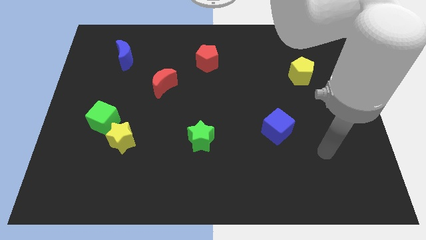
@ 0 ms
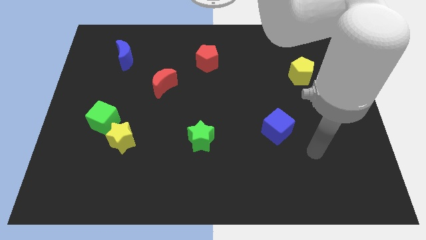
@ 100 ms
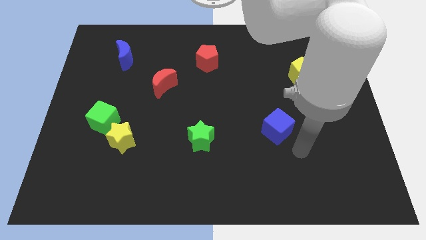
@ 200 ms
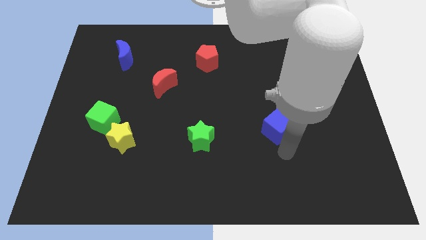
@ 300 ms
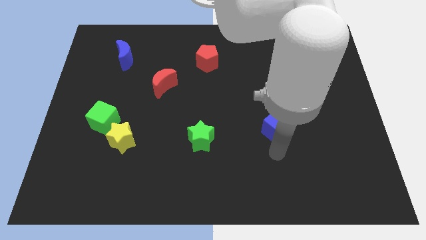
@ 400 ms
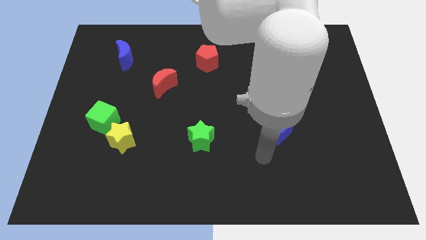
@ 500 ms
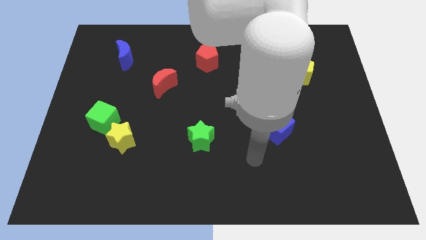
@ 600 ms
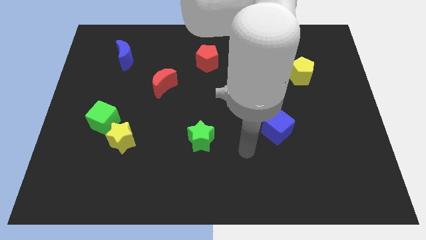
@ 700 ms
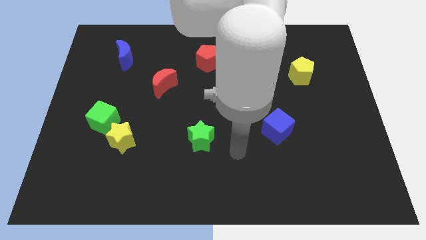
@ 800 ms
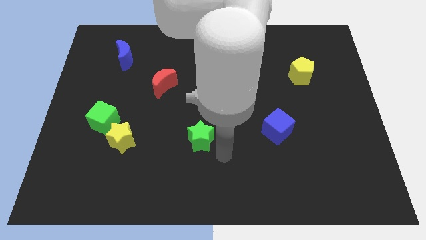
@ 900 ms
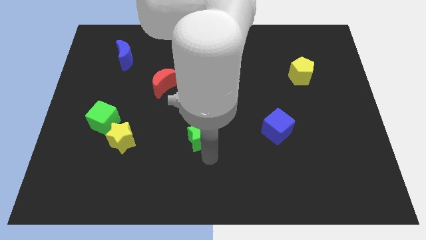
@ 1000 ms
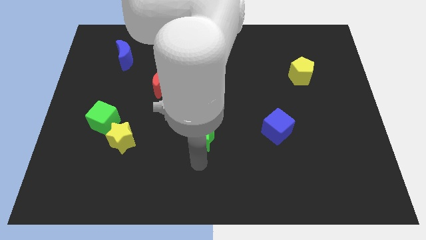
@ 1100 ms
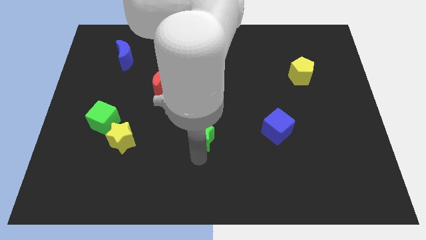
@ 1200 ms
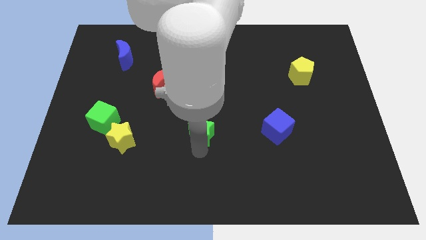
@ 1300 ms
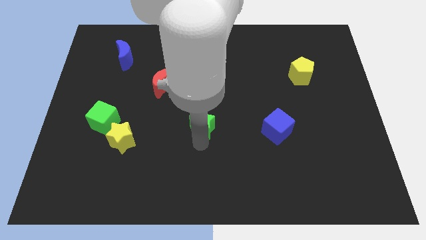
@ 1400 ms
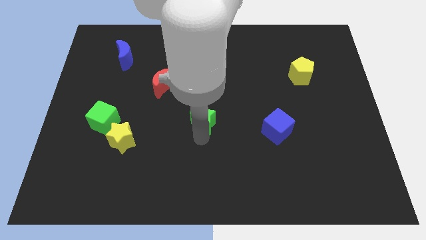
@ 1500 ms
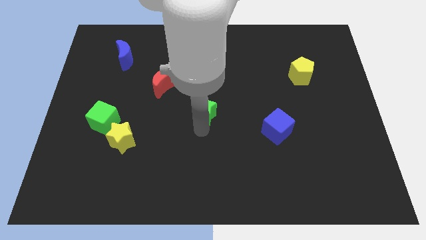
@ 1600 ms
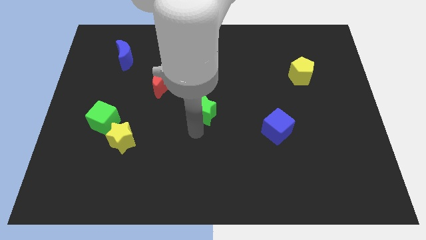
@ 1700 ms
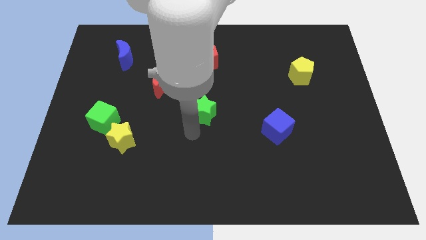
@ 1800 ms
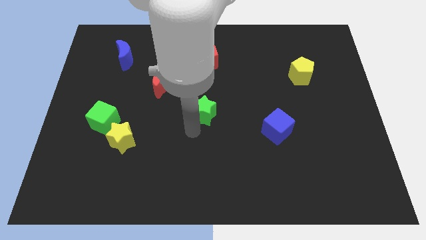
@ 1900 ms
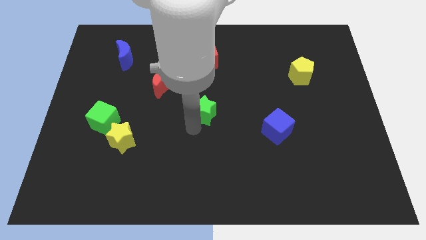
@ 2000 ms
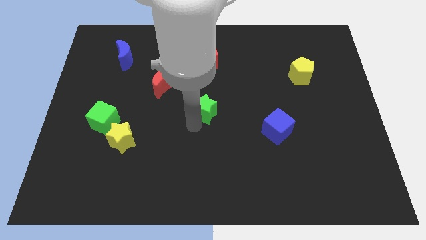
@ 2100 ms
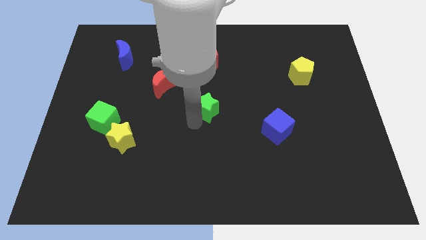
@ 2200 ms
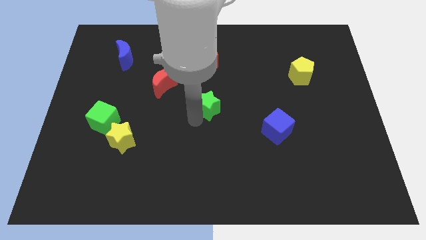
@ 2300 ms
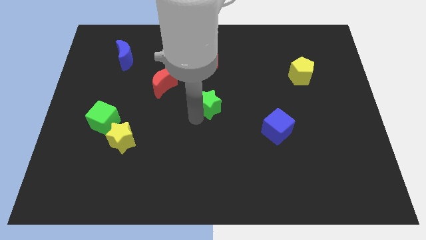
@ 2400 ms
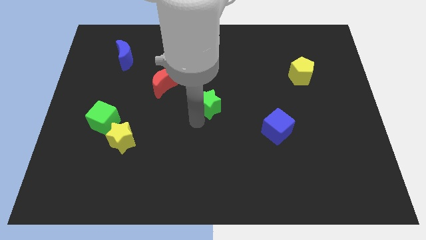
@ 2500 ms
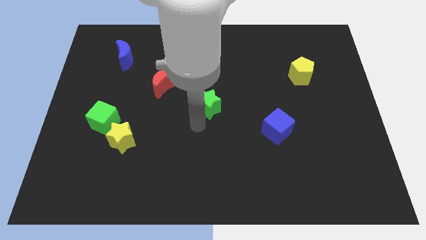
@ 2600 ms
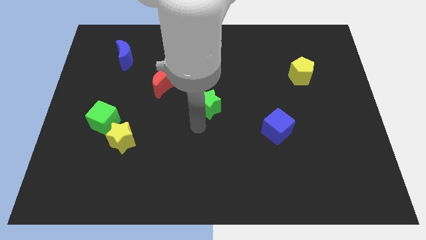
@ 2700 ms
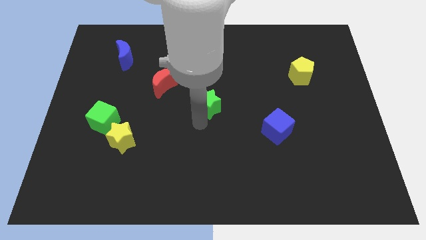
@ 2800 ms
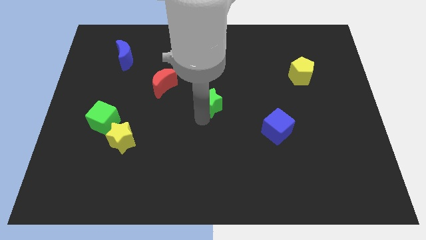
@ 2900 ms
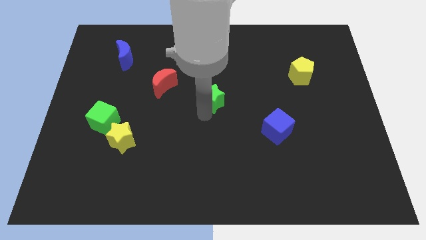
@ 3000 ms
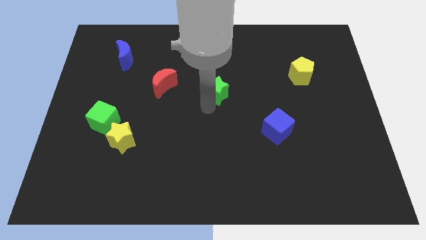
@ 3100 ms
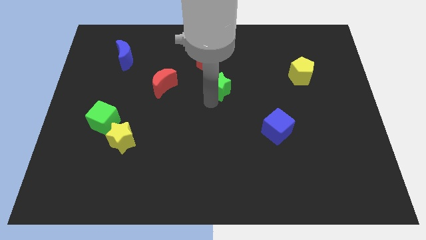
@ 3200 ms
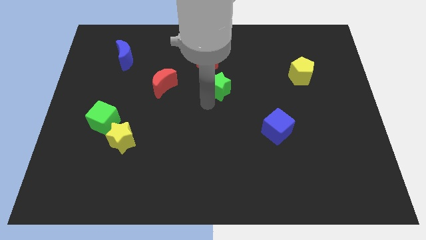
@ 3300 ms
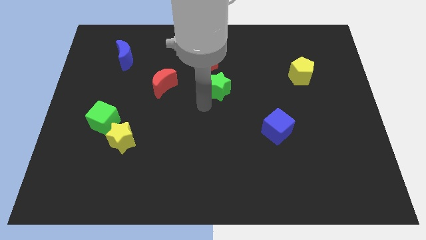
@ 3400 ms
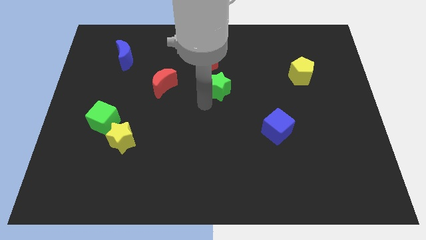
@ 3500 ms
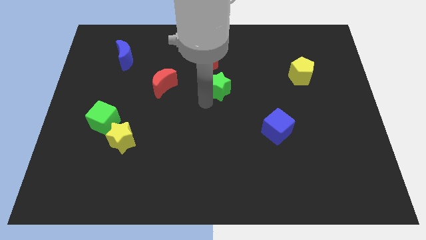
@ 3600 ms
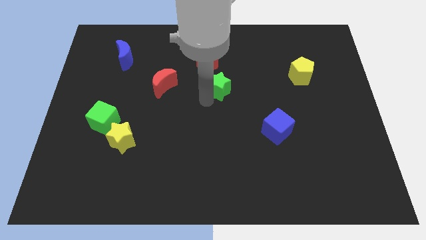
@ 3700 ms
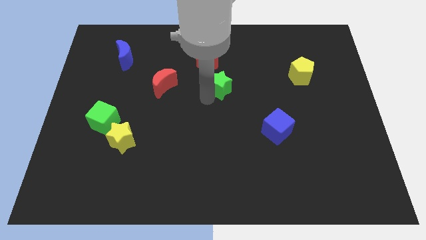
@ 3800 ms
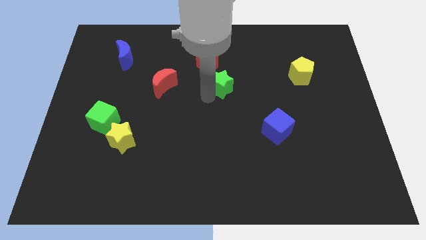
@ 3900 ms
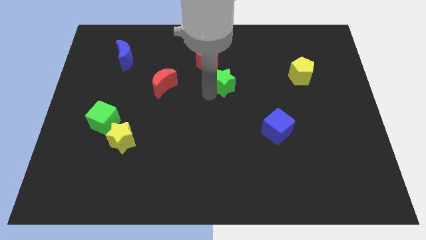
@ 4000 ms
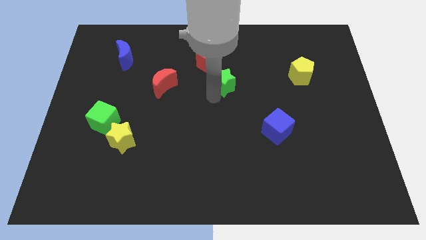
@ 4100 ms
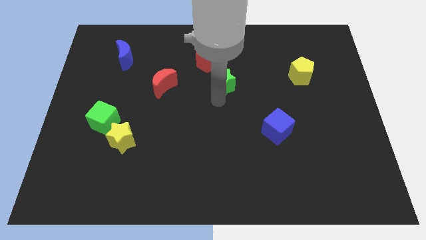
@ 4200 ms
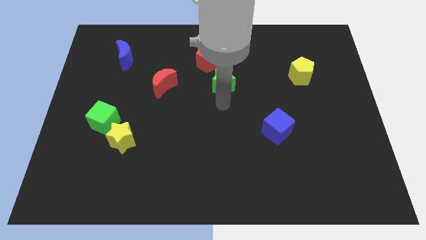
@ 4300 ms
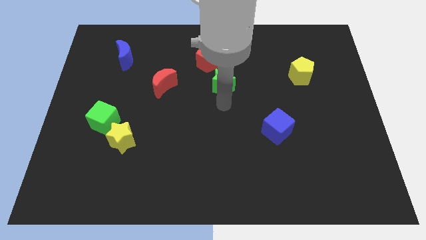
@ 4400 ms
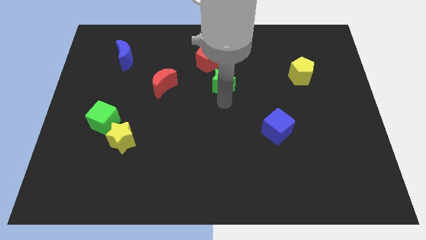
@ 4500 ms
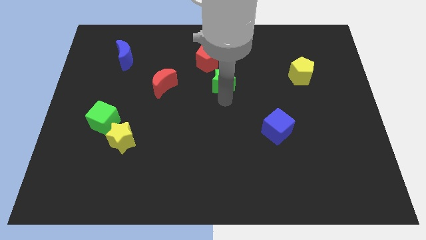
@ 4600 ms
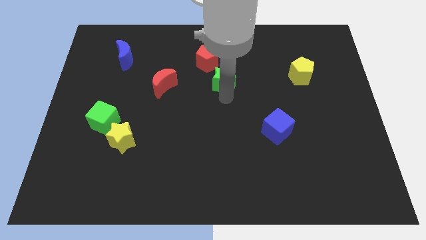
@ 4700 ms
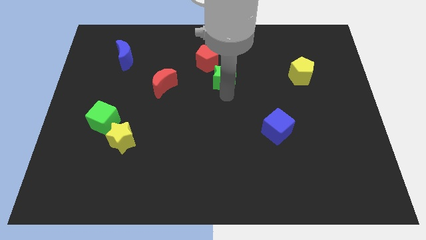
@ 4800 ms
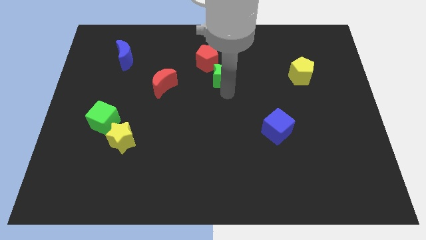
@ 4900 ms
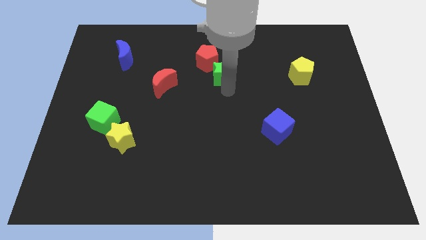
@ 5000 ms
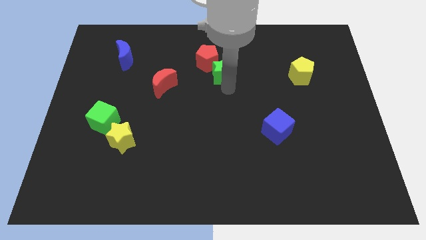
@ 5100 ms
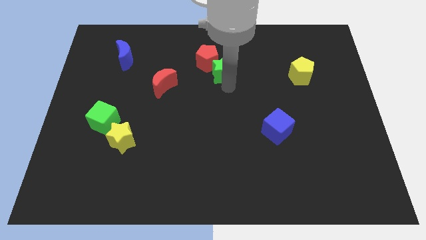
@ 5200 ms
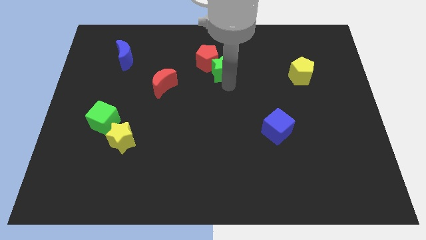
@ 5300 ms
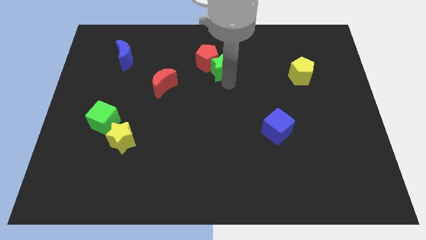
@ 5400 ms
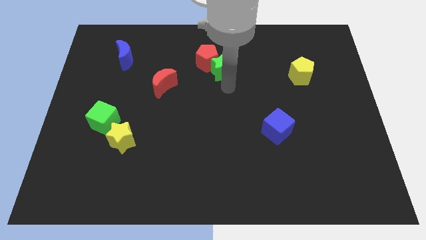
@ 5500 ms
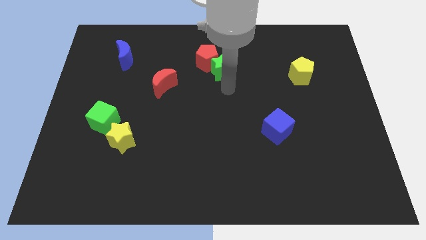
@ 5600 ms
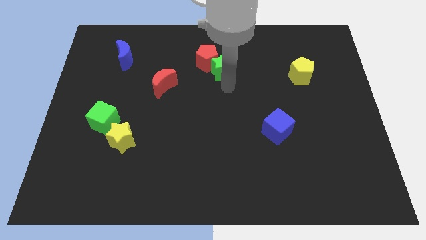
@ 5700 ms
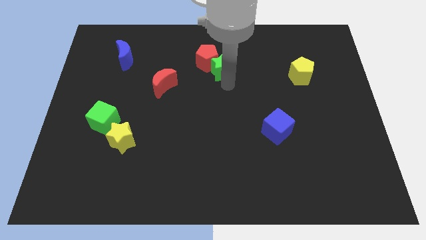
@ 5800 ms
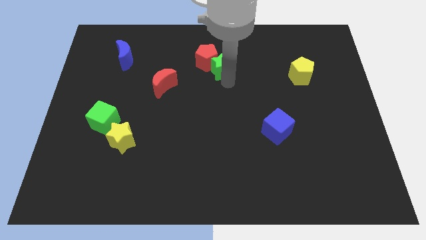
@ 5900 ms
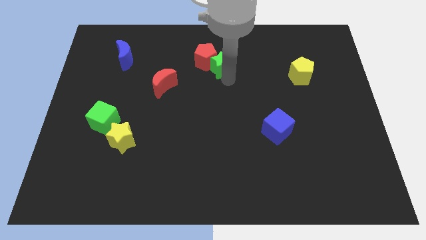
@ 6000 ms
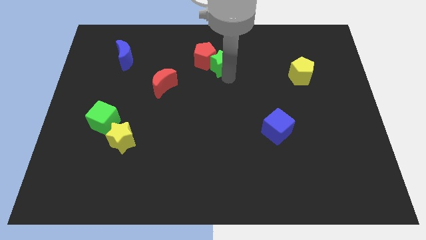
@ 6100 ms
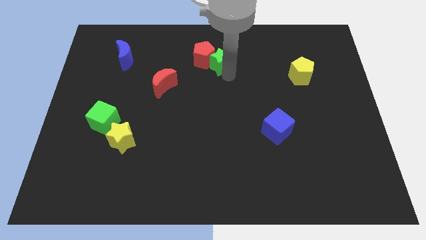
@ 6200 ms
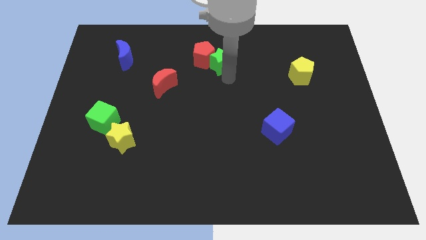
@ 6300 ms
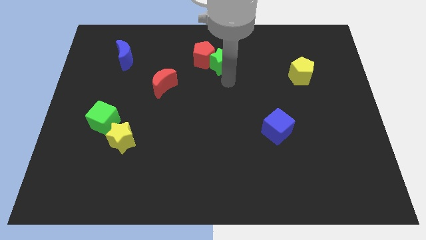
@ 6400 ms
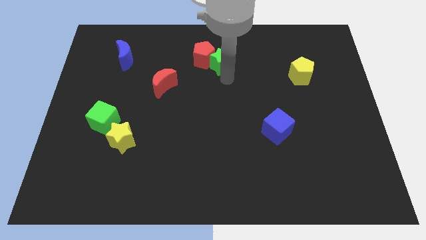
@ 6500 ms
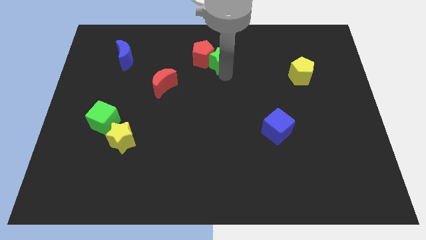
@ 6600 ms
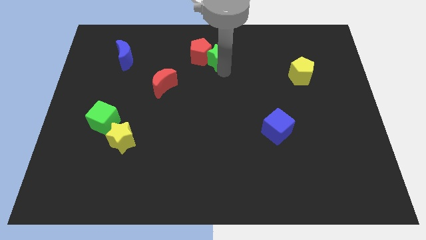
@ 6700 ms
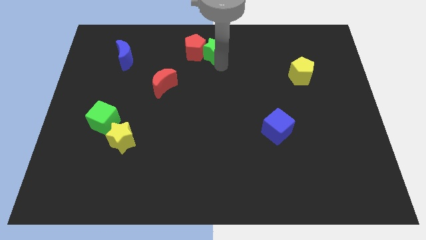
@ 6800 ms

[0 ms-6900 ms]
put the green star to the top
